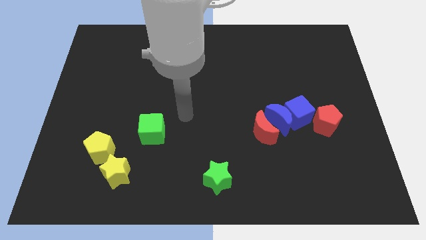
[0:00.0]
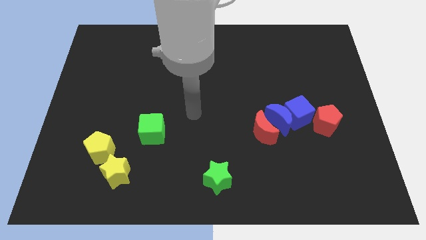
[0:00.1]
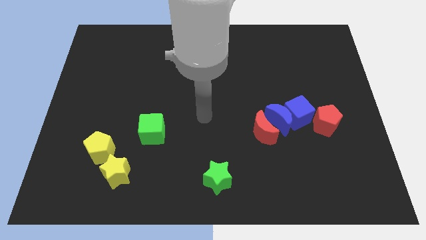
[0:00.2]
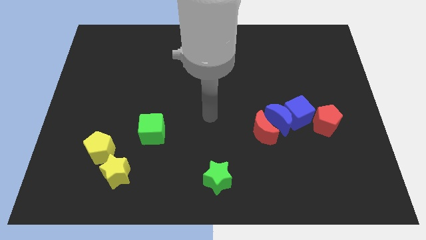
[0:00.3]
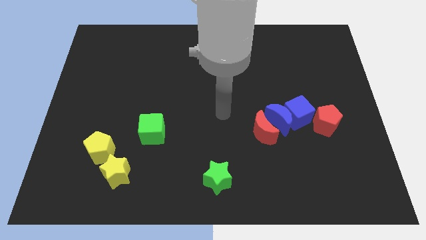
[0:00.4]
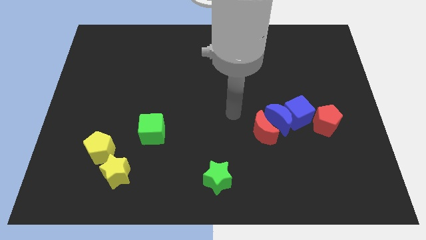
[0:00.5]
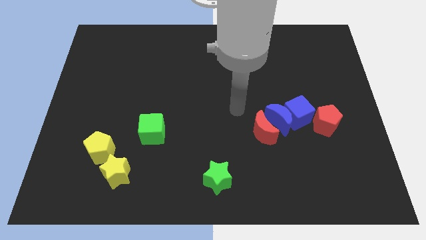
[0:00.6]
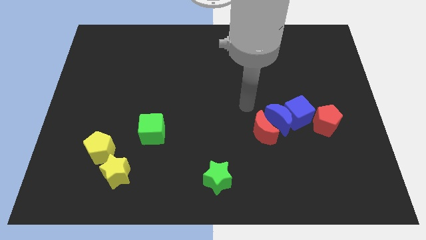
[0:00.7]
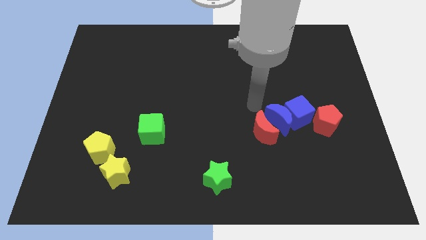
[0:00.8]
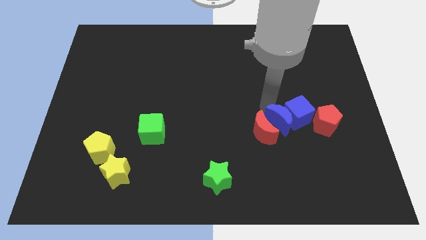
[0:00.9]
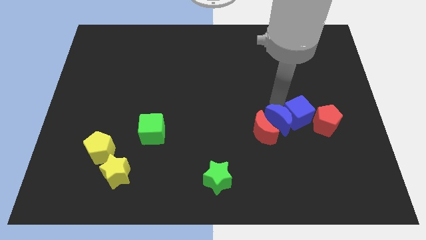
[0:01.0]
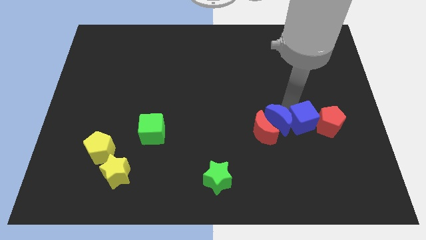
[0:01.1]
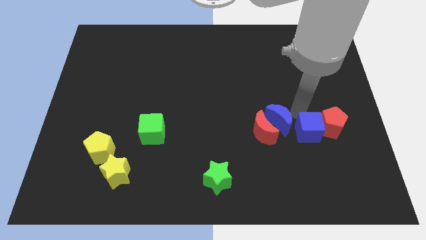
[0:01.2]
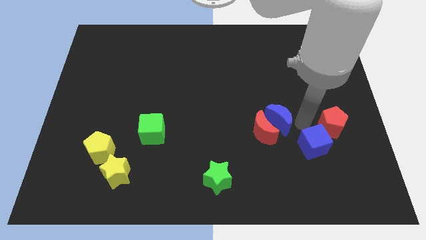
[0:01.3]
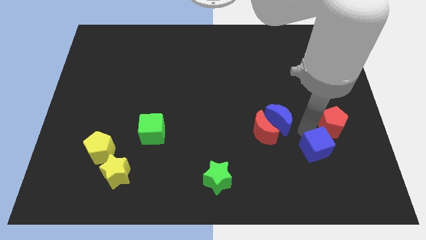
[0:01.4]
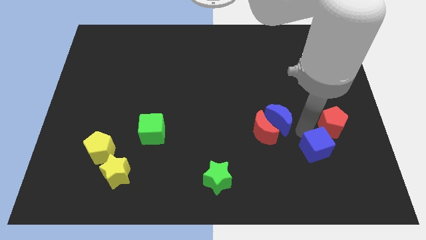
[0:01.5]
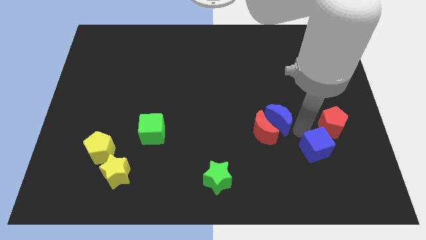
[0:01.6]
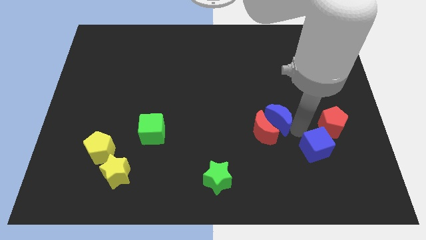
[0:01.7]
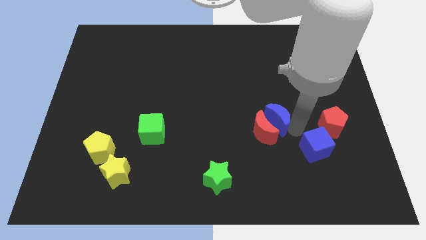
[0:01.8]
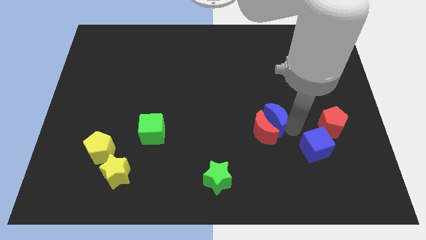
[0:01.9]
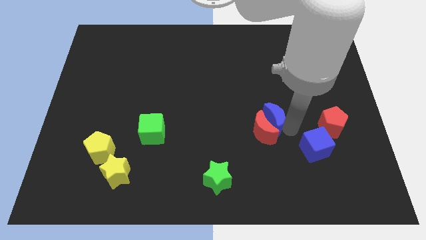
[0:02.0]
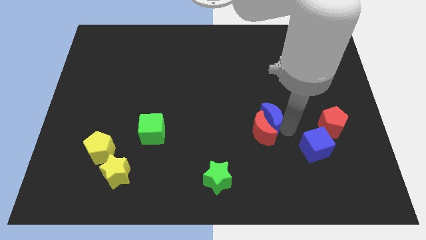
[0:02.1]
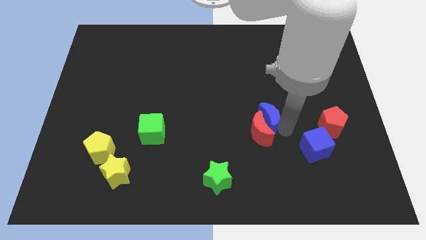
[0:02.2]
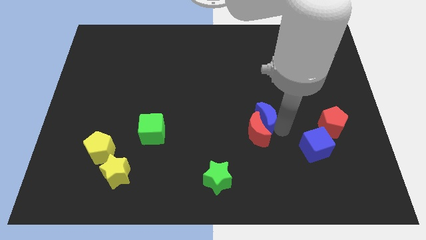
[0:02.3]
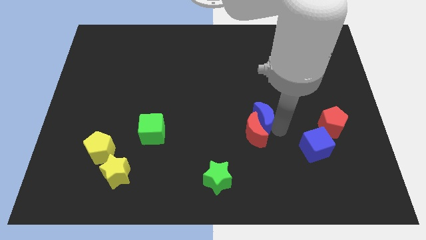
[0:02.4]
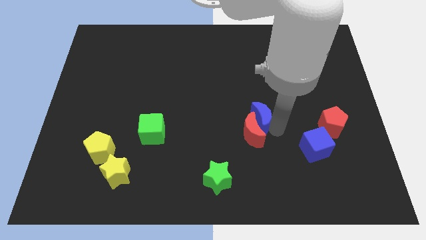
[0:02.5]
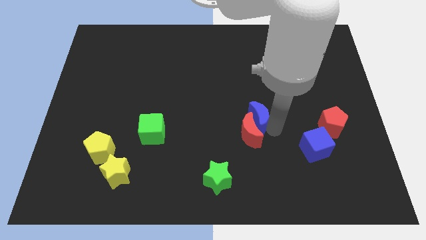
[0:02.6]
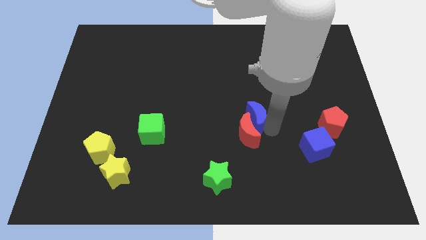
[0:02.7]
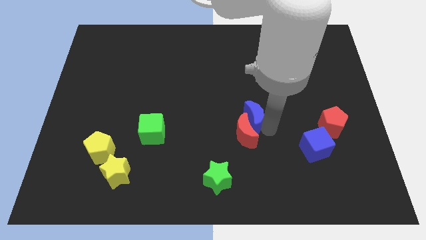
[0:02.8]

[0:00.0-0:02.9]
pull the blue moon apart from the group

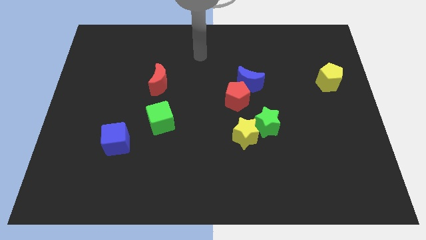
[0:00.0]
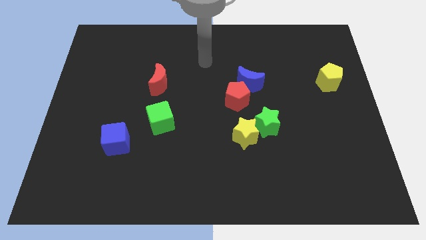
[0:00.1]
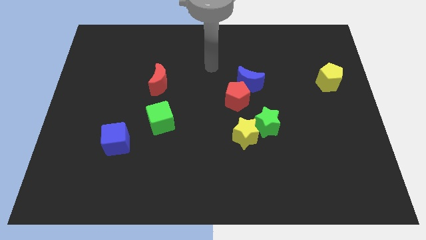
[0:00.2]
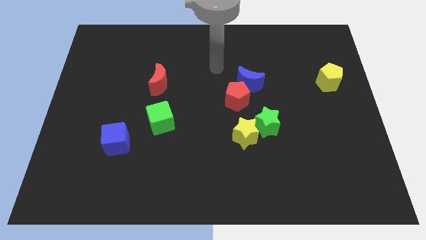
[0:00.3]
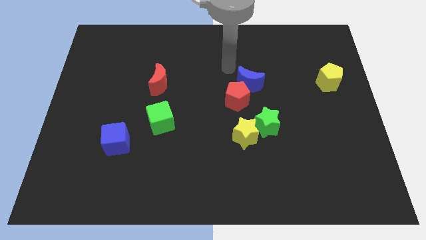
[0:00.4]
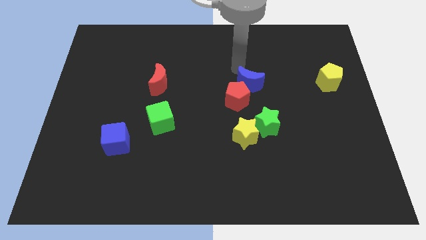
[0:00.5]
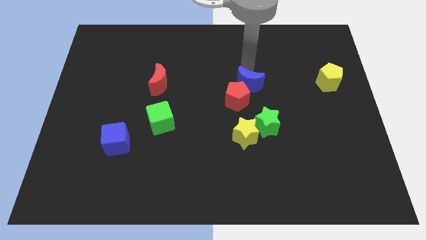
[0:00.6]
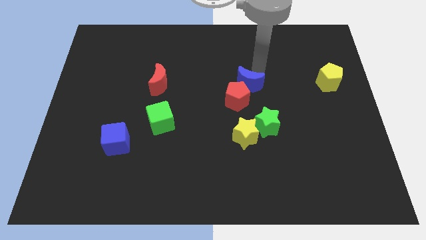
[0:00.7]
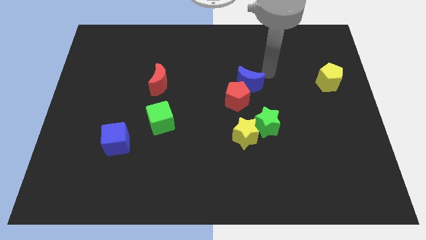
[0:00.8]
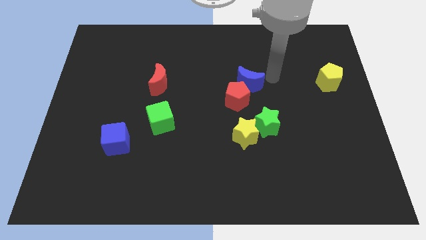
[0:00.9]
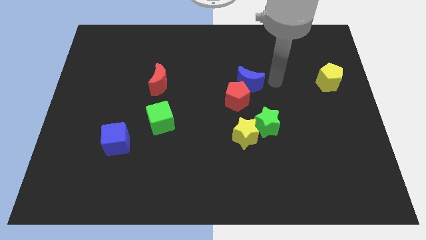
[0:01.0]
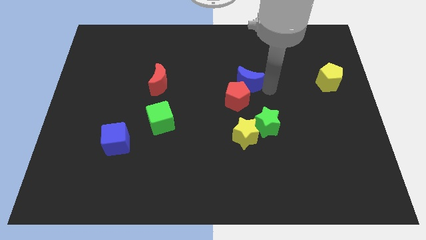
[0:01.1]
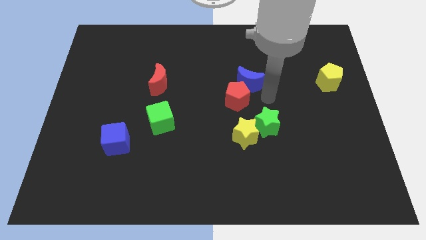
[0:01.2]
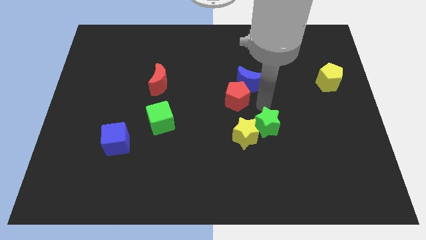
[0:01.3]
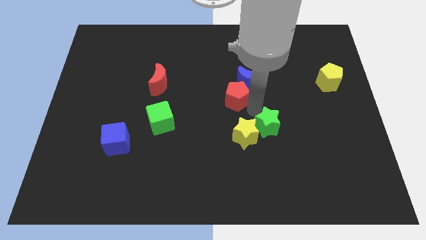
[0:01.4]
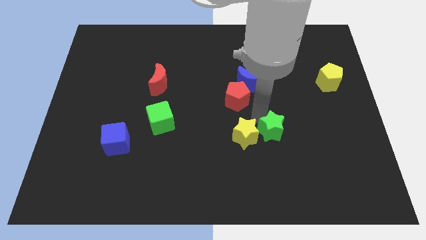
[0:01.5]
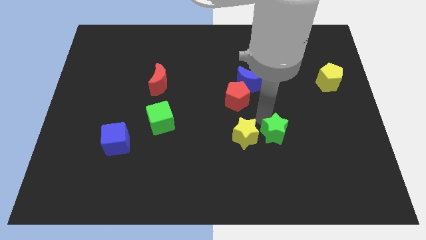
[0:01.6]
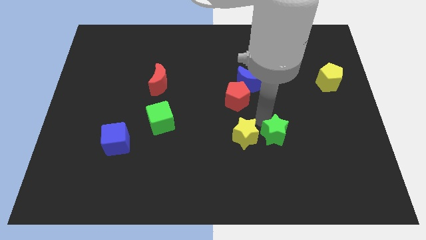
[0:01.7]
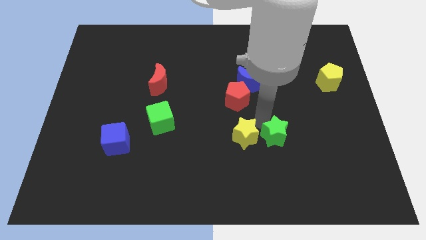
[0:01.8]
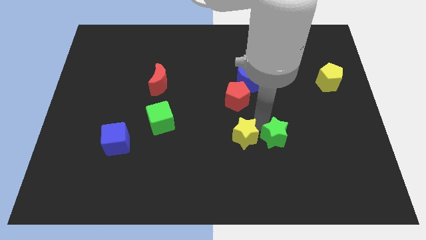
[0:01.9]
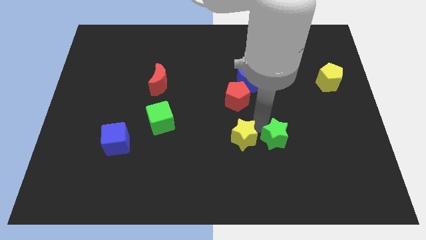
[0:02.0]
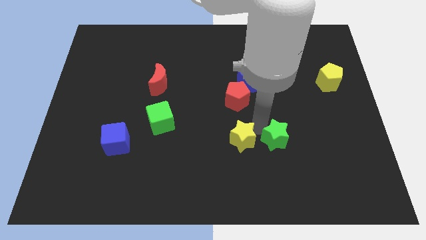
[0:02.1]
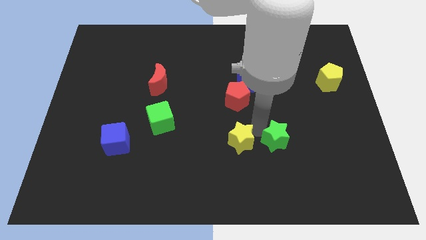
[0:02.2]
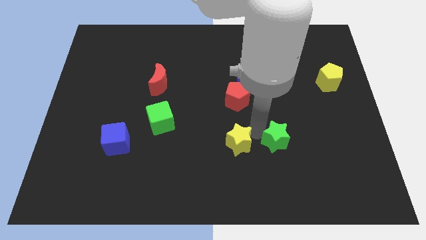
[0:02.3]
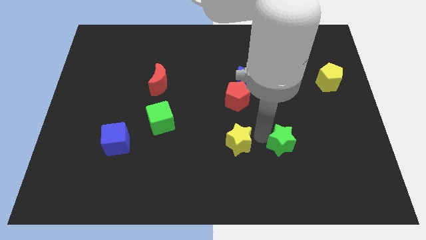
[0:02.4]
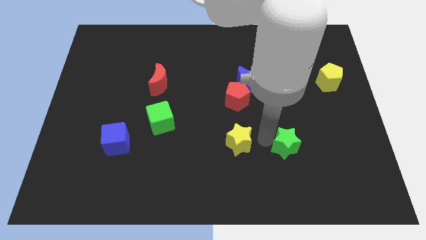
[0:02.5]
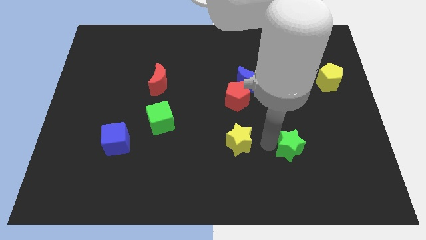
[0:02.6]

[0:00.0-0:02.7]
move the yellow star away from the green star

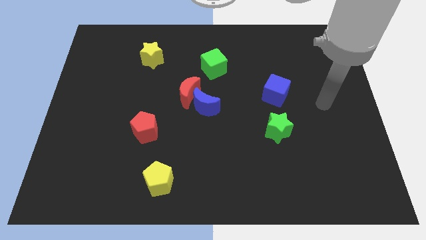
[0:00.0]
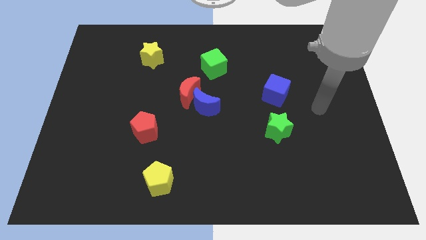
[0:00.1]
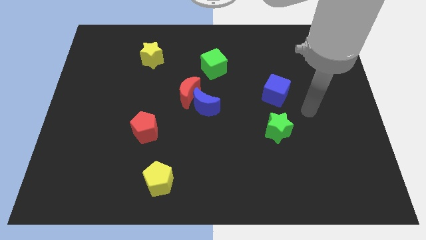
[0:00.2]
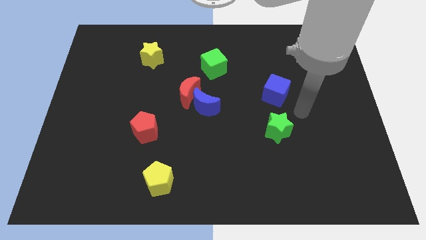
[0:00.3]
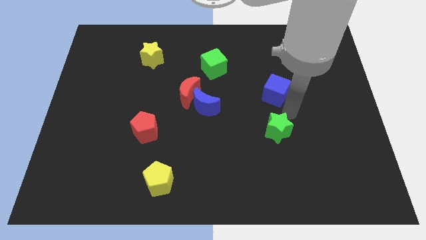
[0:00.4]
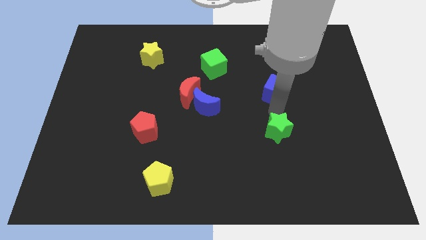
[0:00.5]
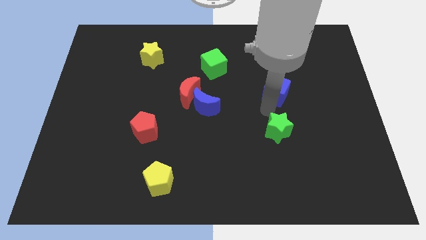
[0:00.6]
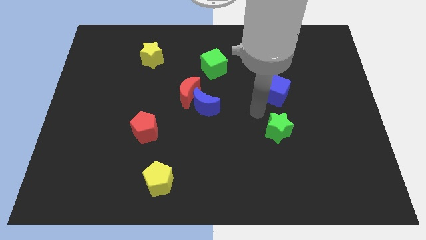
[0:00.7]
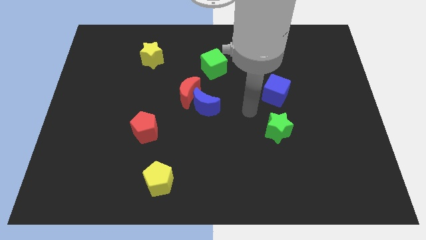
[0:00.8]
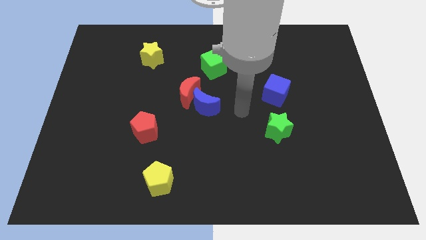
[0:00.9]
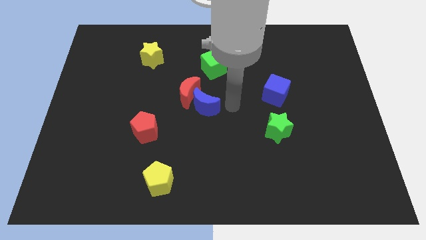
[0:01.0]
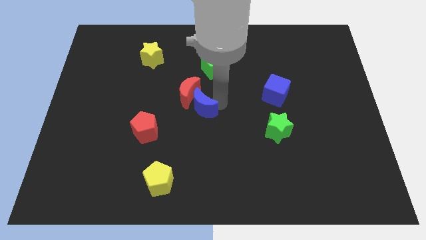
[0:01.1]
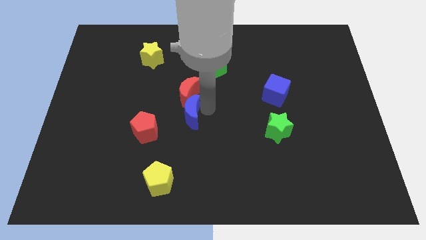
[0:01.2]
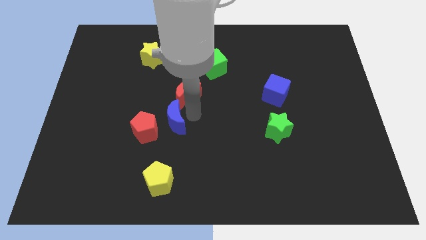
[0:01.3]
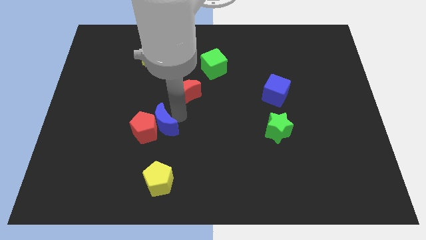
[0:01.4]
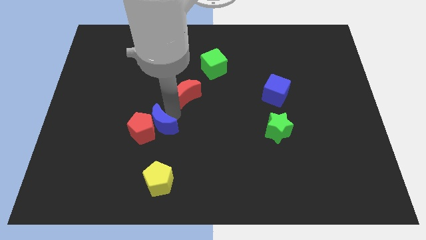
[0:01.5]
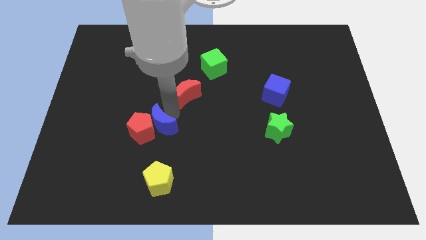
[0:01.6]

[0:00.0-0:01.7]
separate the red moon from the blue moon

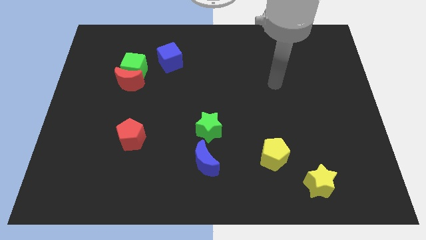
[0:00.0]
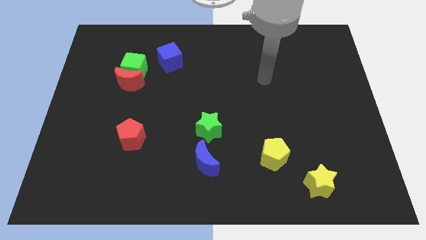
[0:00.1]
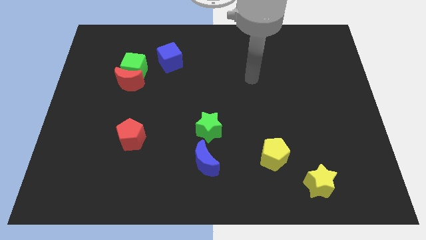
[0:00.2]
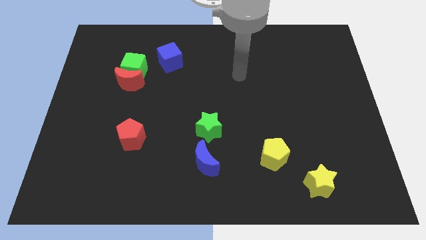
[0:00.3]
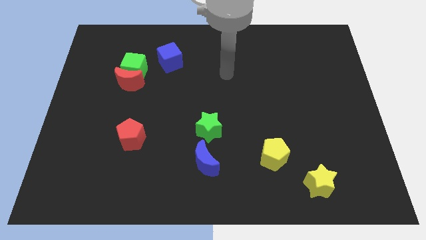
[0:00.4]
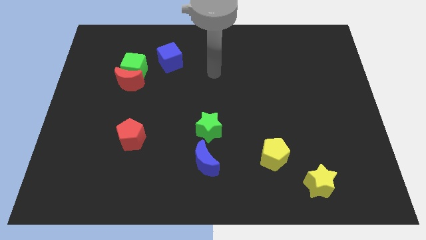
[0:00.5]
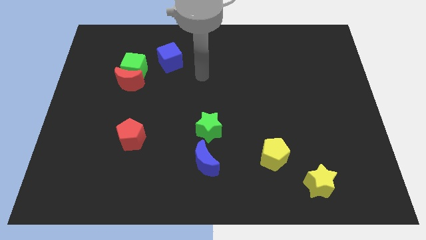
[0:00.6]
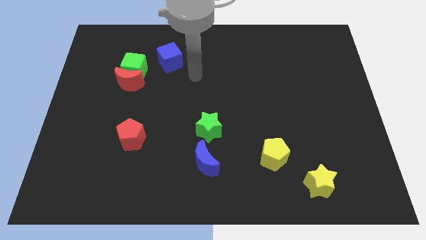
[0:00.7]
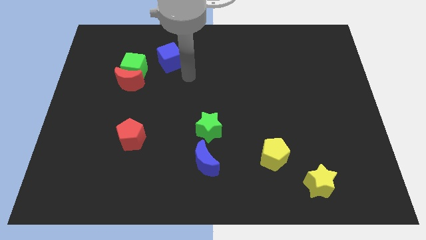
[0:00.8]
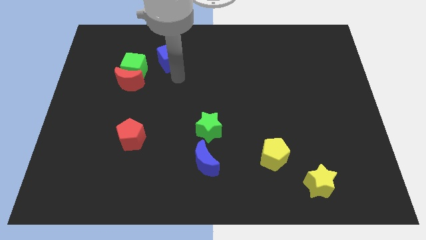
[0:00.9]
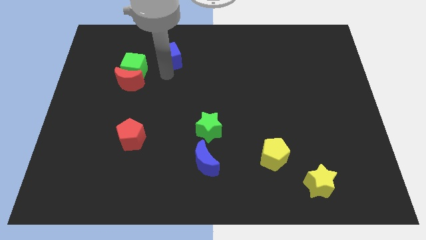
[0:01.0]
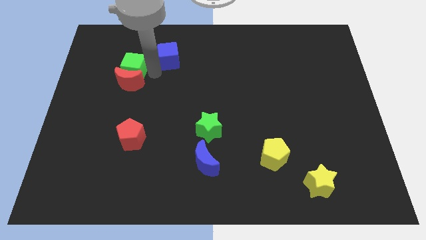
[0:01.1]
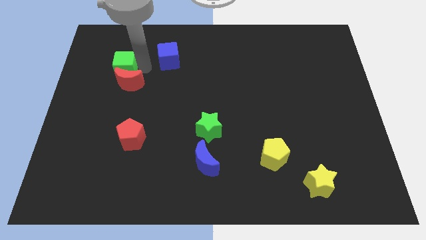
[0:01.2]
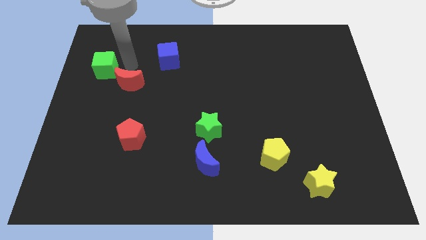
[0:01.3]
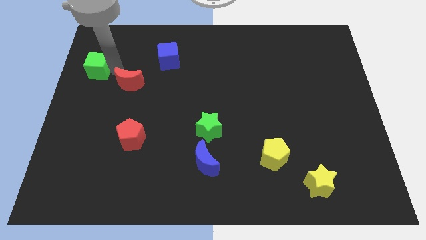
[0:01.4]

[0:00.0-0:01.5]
separate the red moon from the green cube

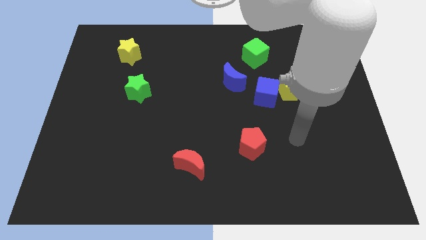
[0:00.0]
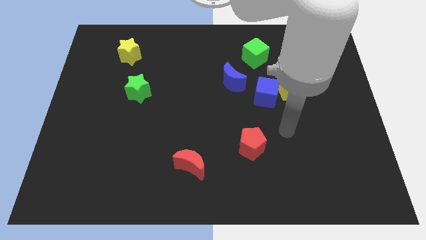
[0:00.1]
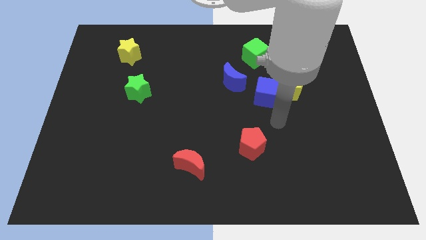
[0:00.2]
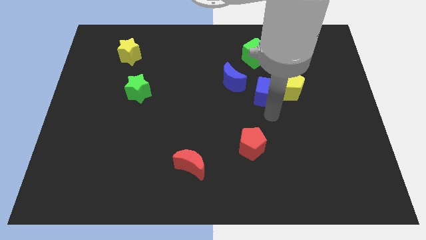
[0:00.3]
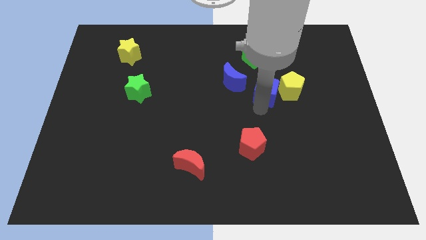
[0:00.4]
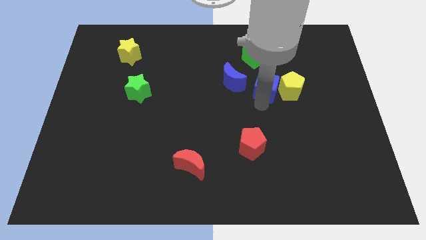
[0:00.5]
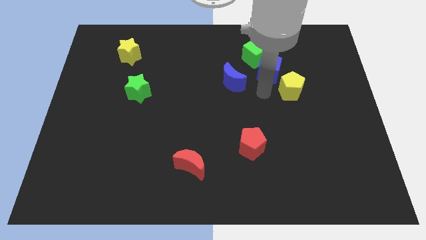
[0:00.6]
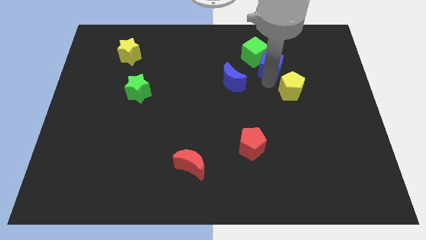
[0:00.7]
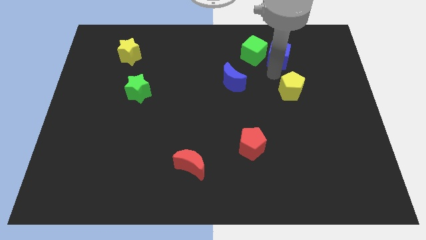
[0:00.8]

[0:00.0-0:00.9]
pull the yellow pentagon apart from the blue cube
